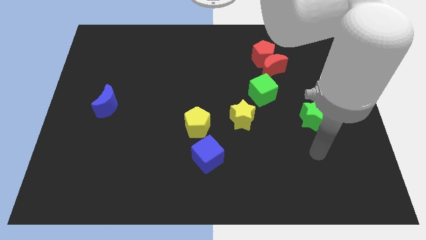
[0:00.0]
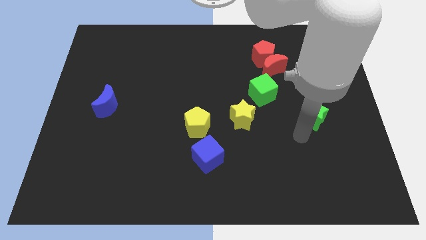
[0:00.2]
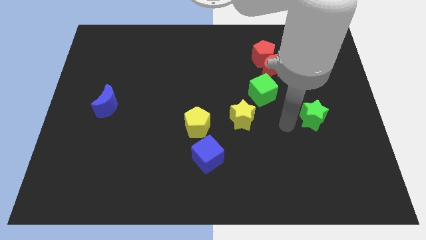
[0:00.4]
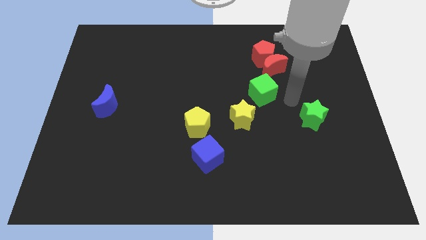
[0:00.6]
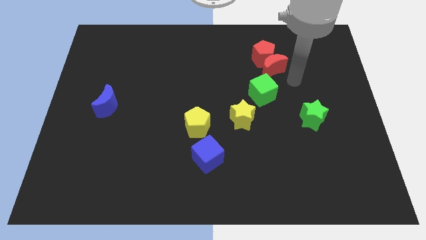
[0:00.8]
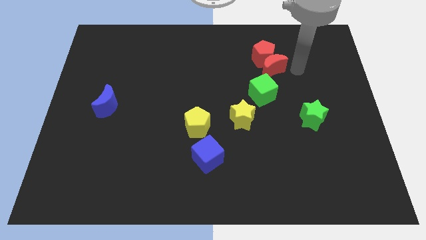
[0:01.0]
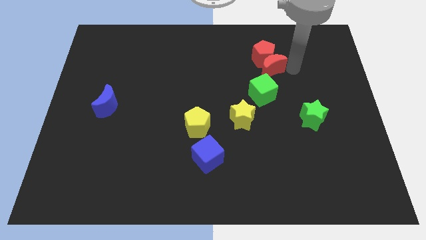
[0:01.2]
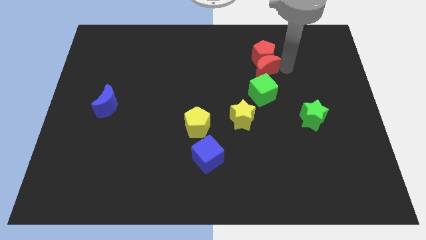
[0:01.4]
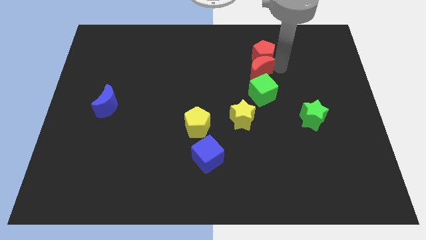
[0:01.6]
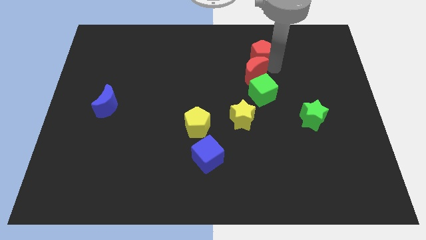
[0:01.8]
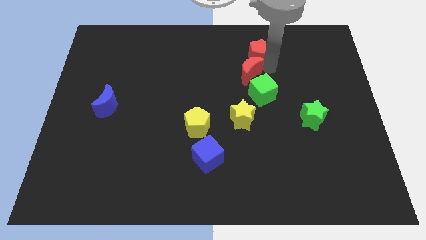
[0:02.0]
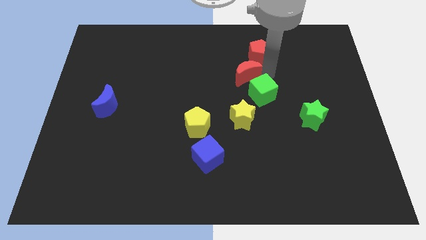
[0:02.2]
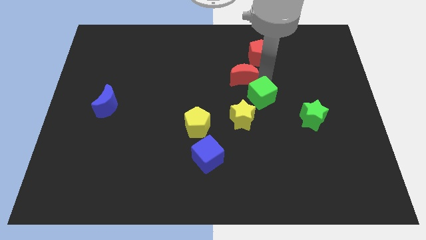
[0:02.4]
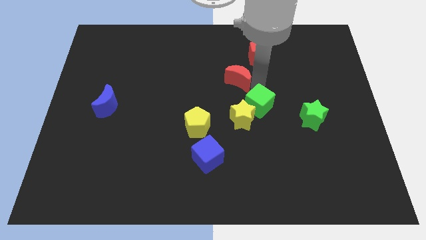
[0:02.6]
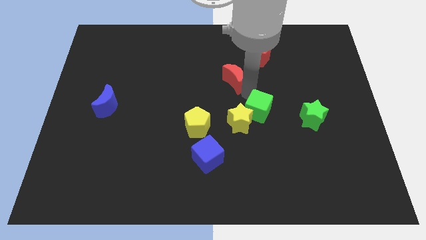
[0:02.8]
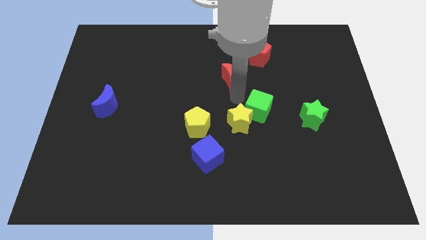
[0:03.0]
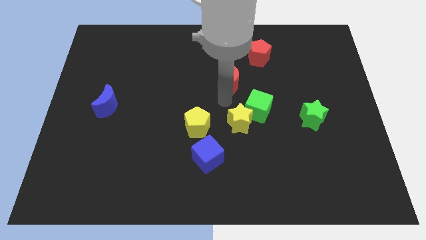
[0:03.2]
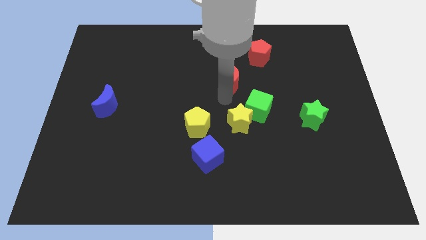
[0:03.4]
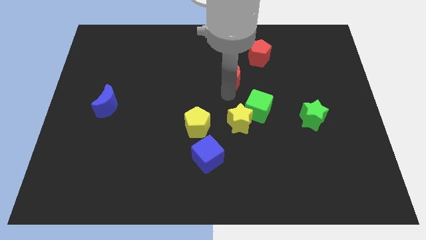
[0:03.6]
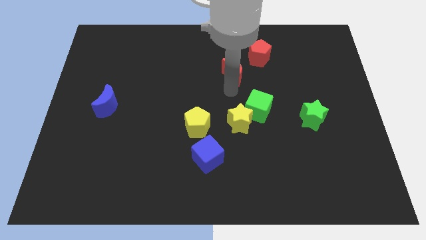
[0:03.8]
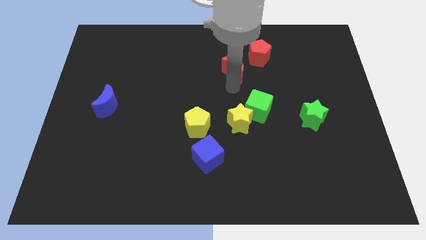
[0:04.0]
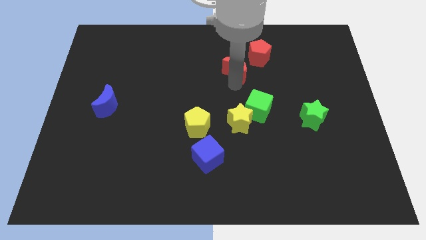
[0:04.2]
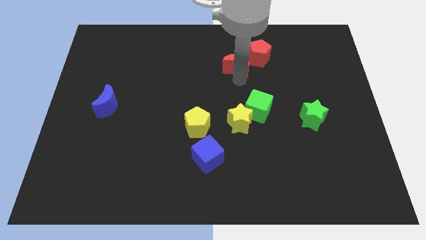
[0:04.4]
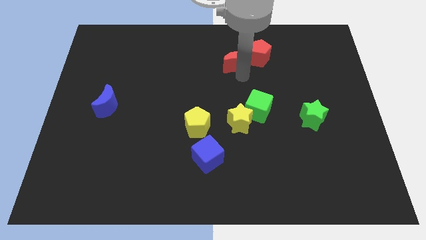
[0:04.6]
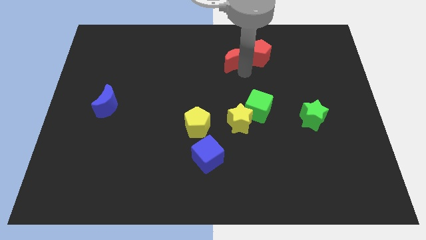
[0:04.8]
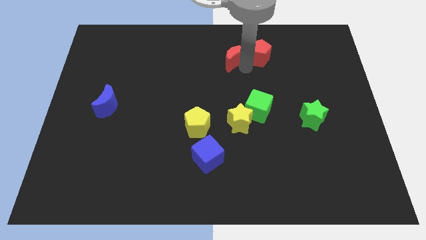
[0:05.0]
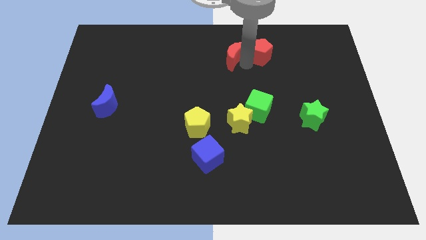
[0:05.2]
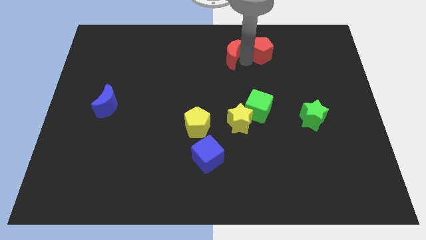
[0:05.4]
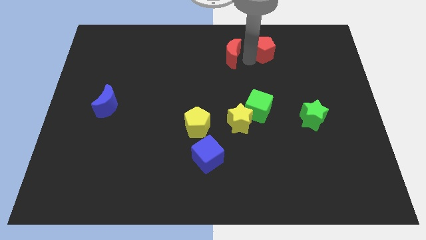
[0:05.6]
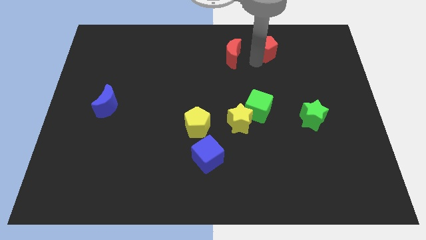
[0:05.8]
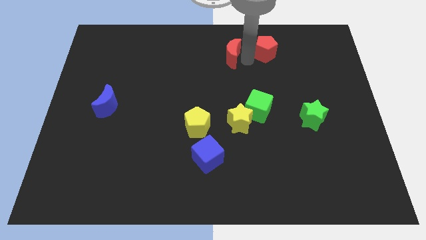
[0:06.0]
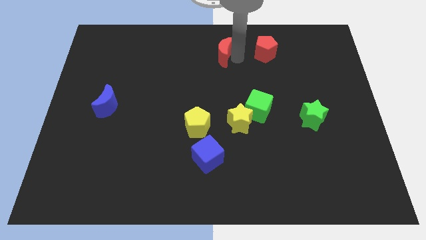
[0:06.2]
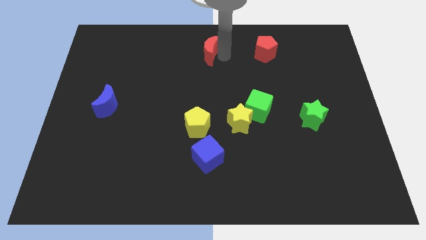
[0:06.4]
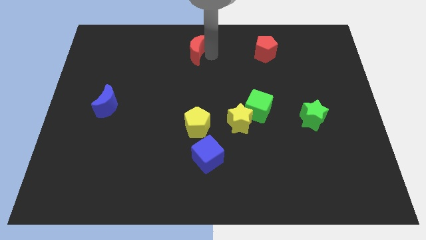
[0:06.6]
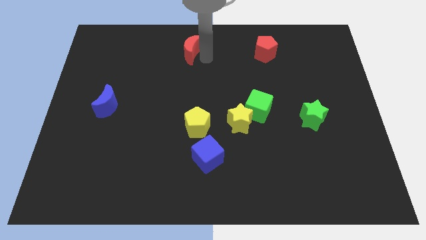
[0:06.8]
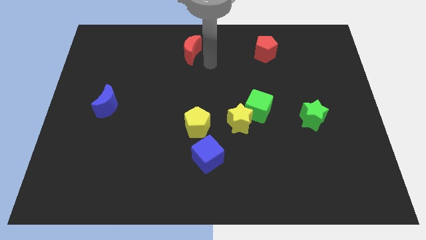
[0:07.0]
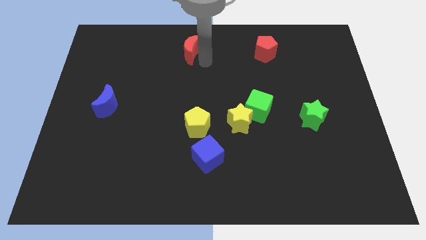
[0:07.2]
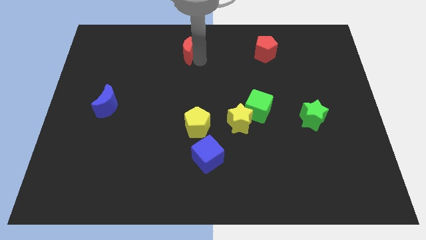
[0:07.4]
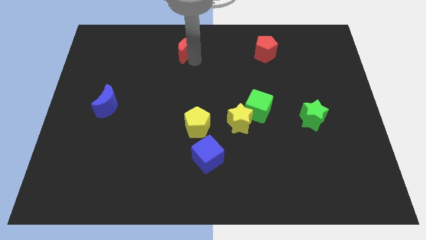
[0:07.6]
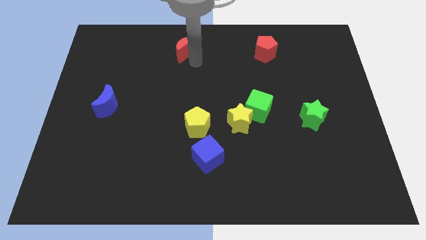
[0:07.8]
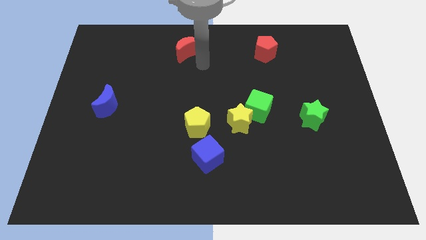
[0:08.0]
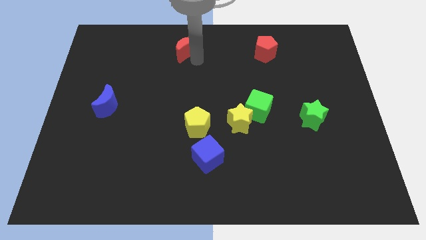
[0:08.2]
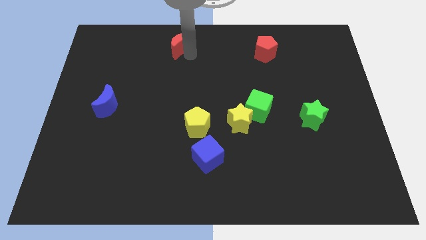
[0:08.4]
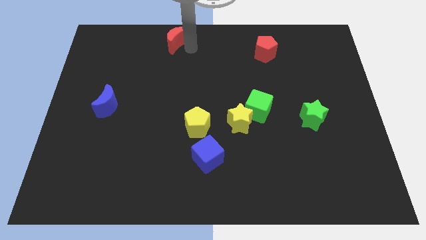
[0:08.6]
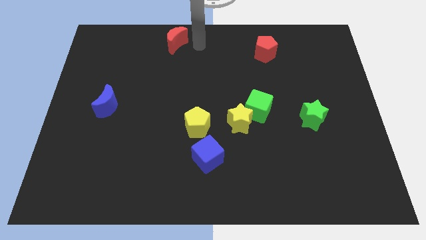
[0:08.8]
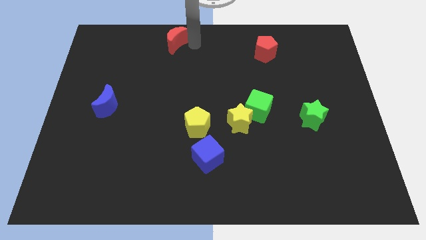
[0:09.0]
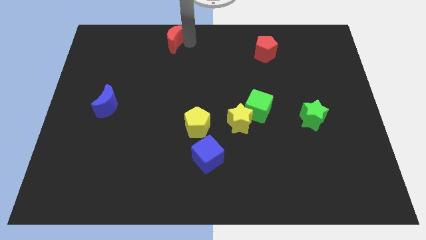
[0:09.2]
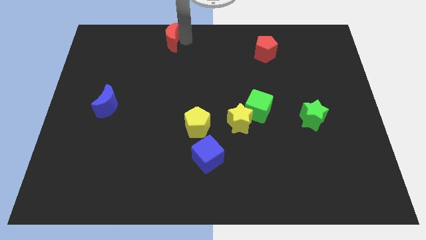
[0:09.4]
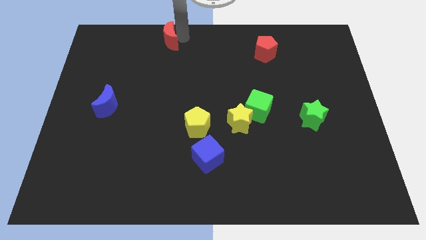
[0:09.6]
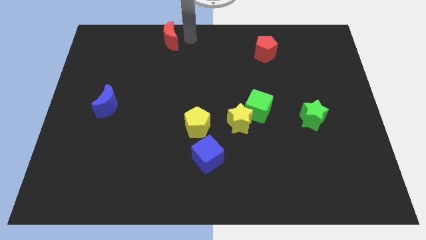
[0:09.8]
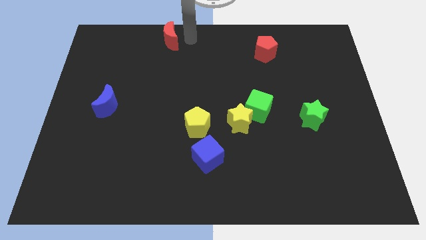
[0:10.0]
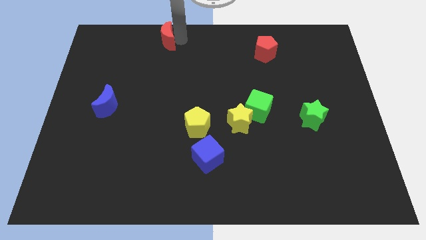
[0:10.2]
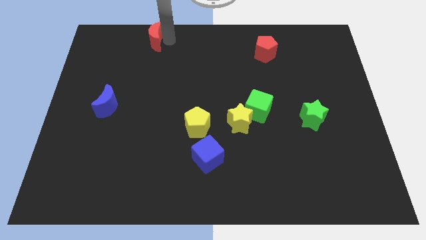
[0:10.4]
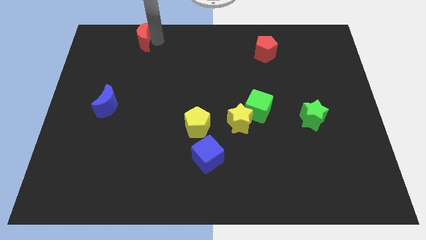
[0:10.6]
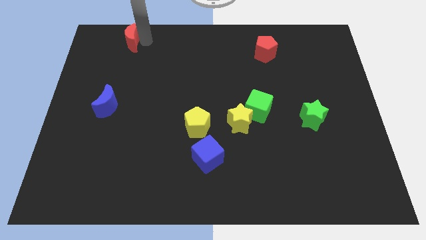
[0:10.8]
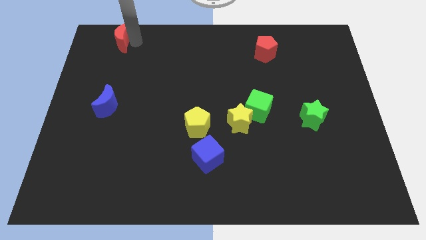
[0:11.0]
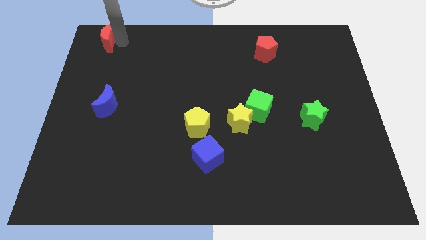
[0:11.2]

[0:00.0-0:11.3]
put the red moon to the upper left corner

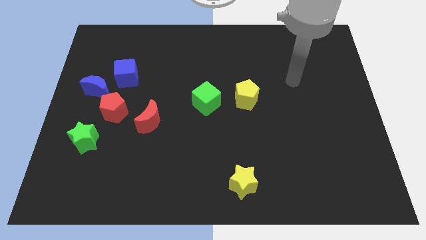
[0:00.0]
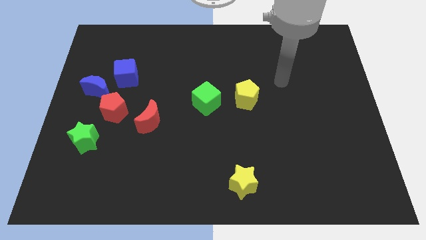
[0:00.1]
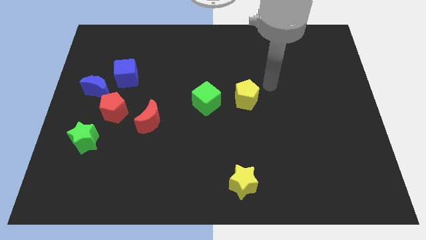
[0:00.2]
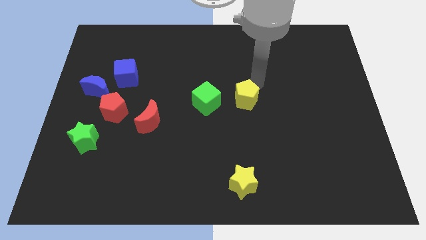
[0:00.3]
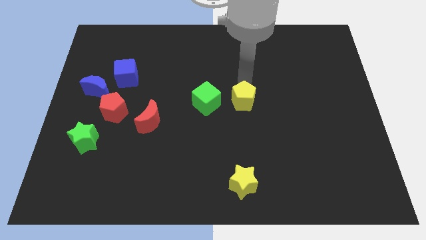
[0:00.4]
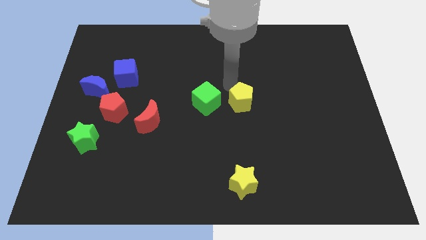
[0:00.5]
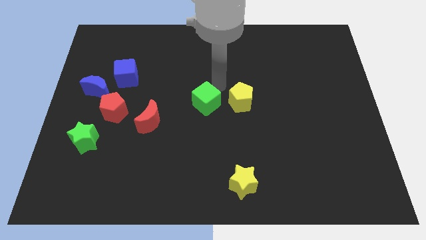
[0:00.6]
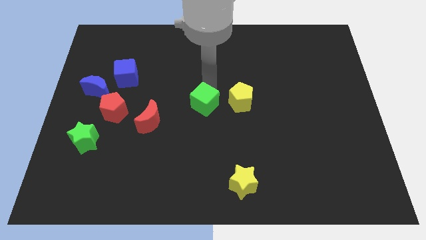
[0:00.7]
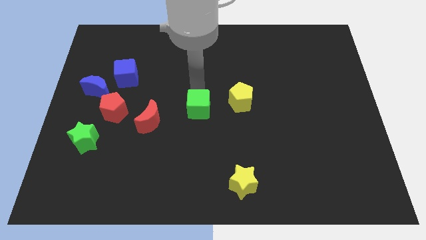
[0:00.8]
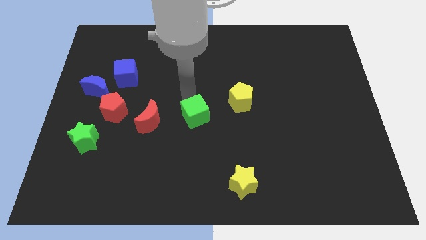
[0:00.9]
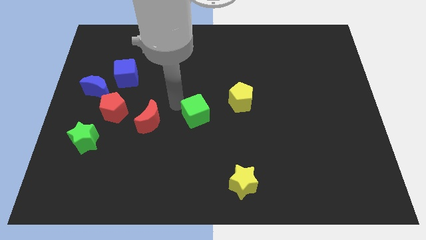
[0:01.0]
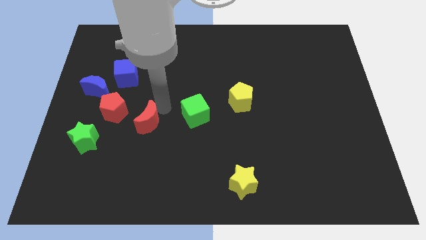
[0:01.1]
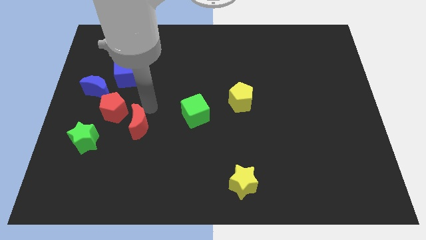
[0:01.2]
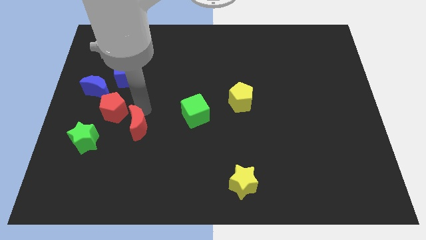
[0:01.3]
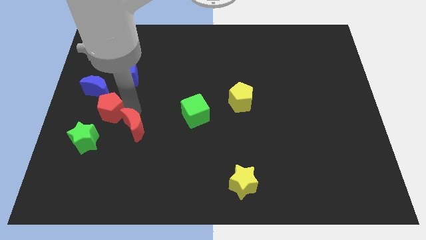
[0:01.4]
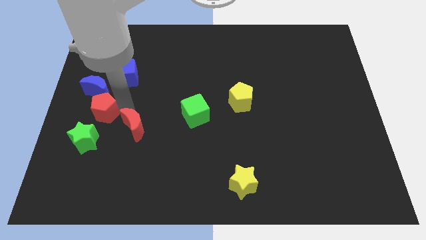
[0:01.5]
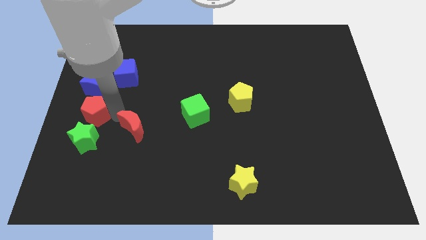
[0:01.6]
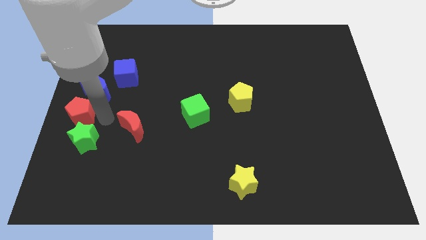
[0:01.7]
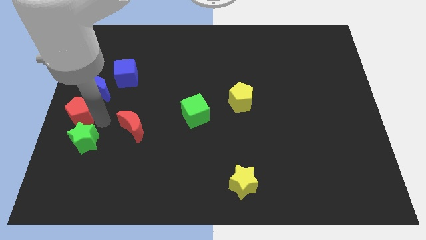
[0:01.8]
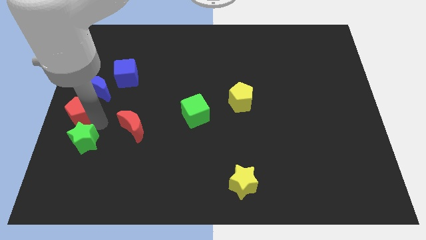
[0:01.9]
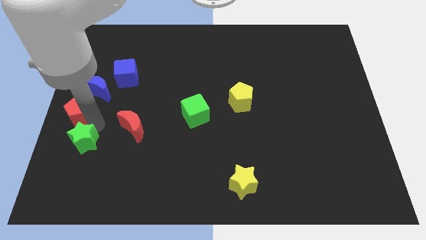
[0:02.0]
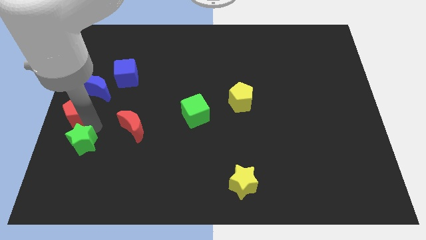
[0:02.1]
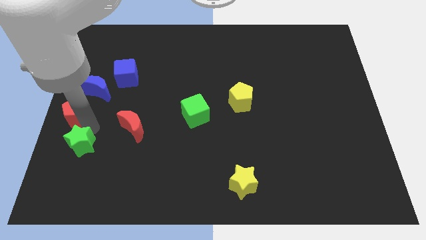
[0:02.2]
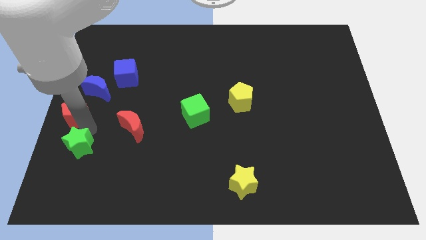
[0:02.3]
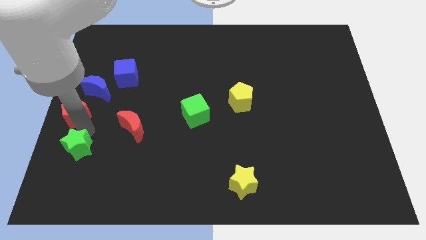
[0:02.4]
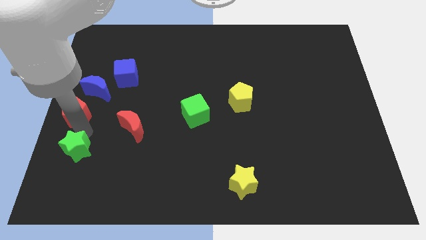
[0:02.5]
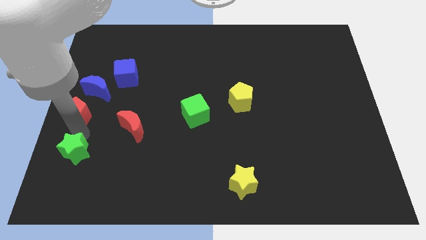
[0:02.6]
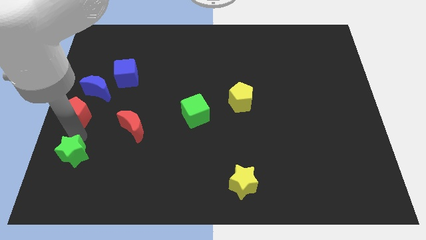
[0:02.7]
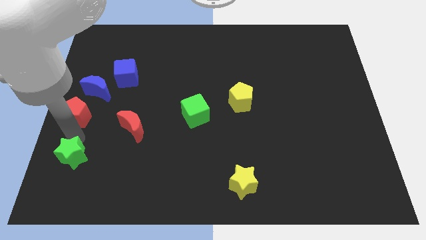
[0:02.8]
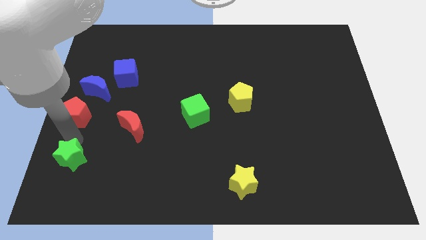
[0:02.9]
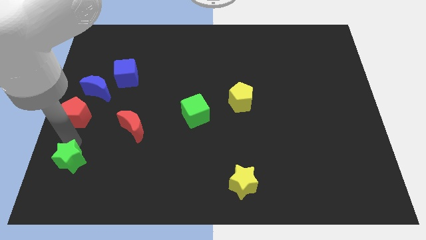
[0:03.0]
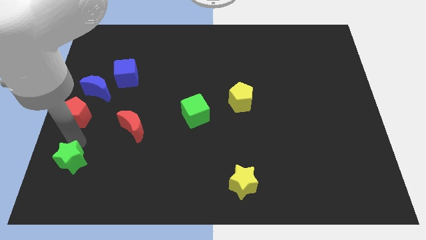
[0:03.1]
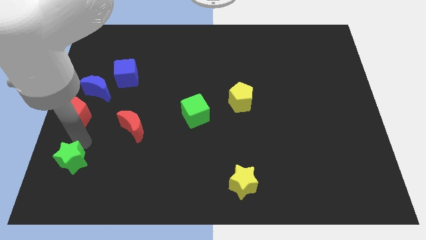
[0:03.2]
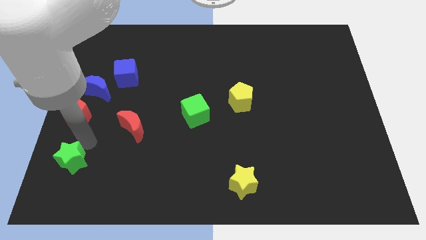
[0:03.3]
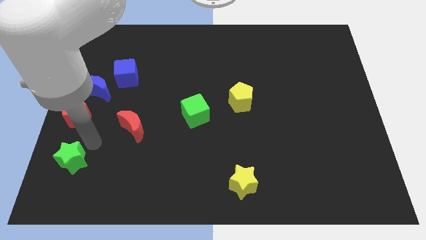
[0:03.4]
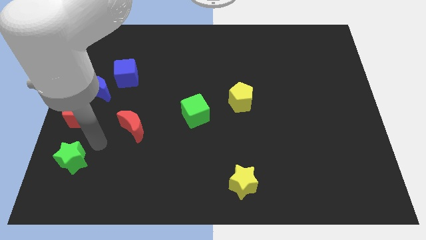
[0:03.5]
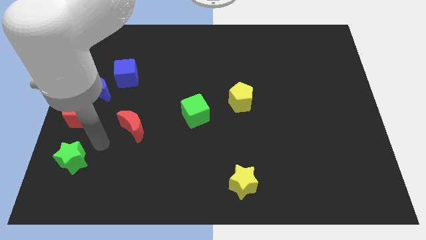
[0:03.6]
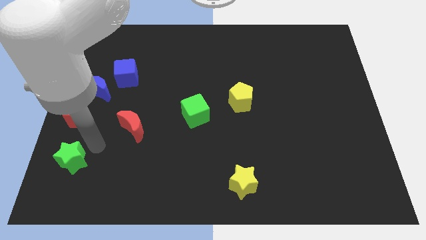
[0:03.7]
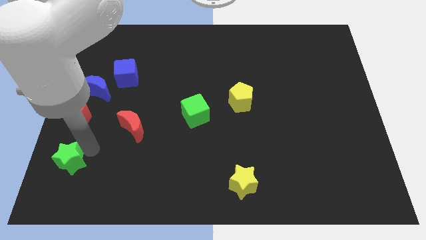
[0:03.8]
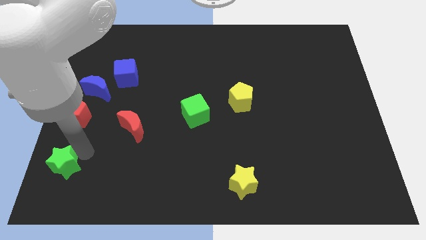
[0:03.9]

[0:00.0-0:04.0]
move the green star to the lower left corner
